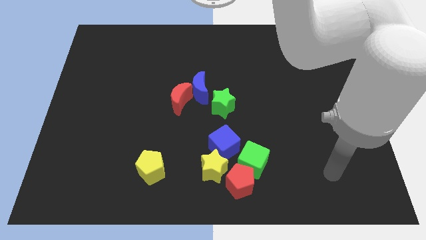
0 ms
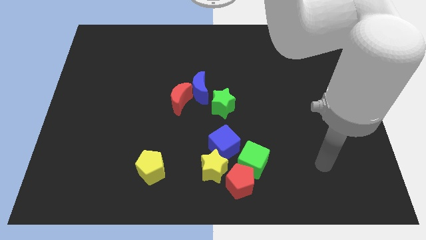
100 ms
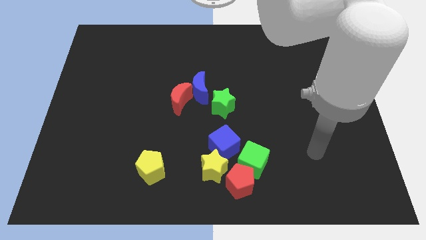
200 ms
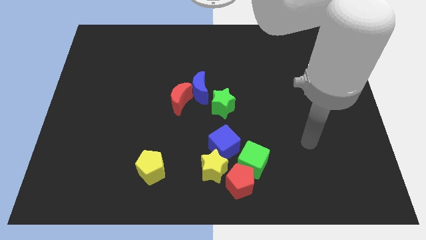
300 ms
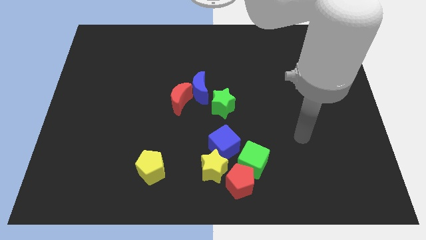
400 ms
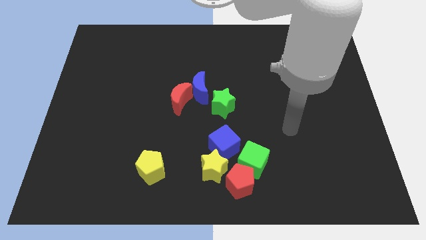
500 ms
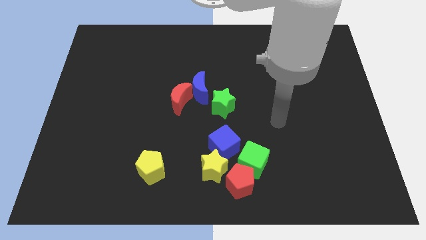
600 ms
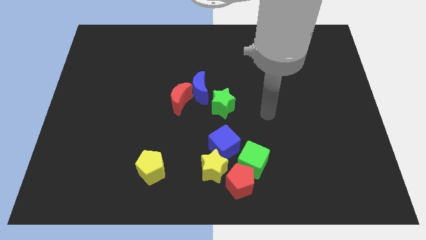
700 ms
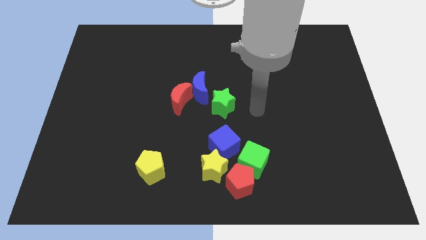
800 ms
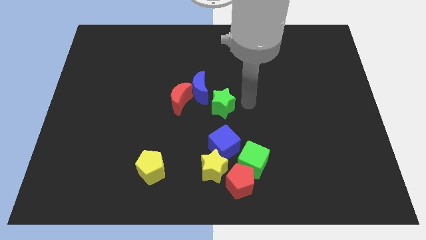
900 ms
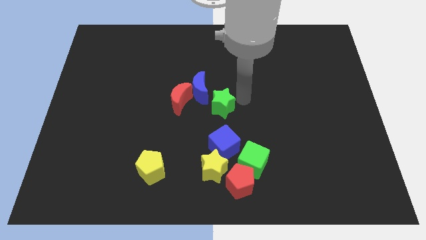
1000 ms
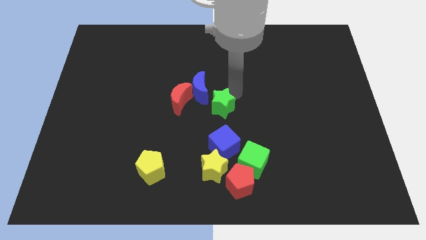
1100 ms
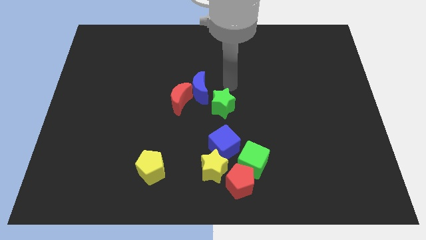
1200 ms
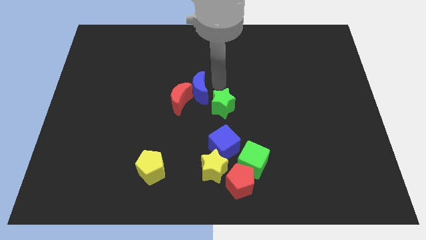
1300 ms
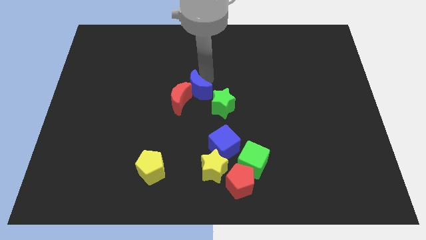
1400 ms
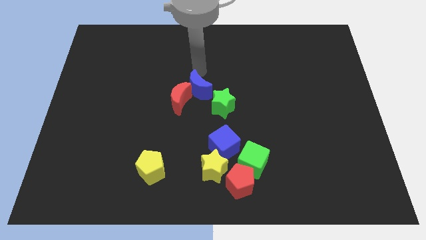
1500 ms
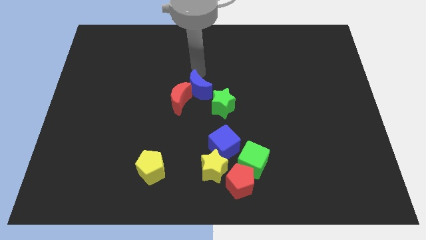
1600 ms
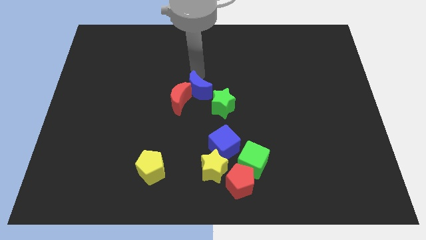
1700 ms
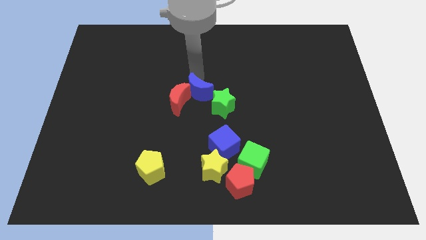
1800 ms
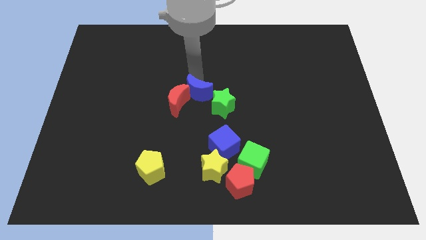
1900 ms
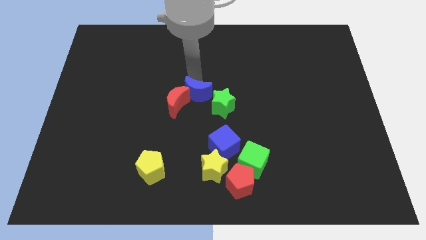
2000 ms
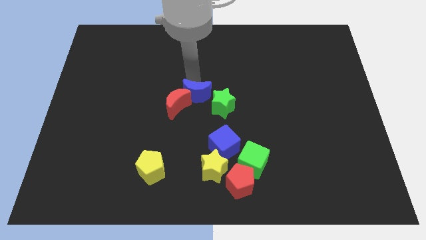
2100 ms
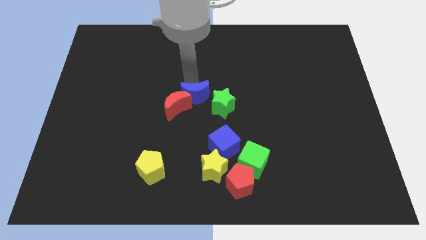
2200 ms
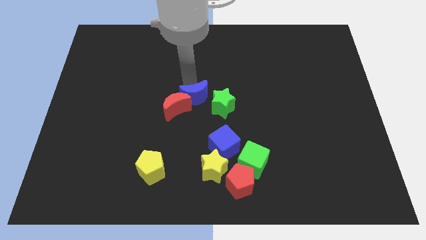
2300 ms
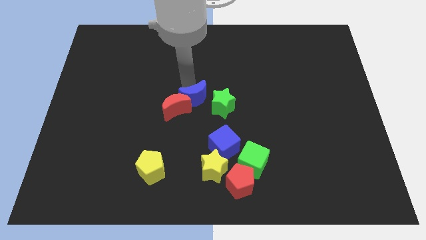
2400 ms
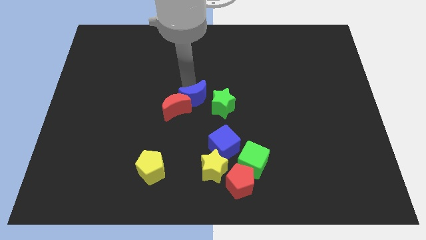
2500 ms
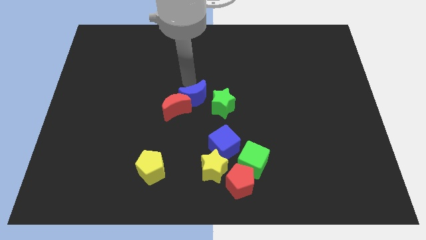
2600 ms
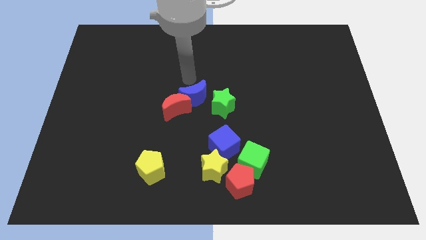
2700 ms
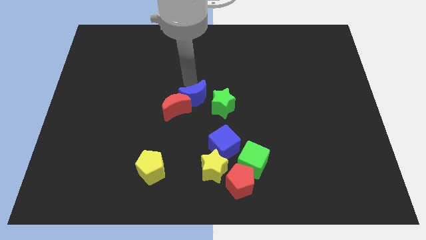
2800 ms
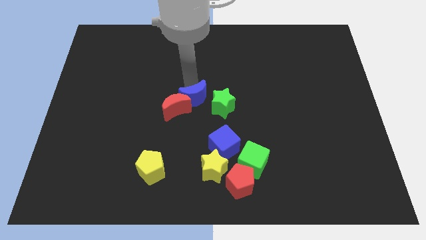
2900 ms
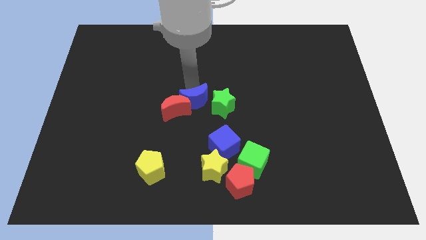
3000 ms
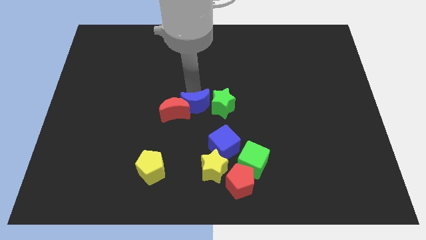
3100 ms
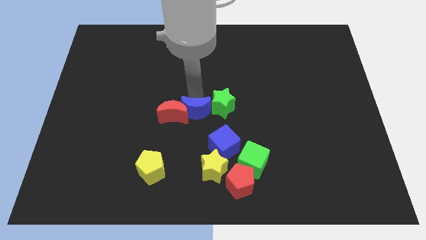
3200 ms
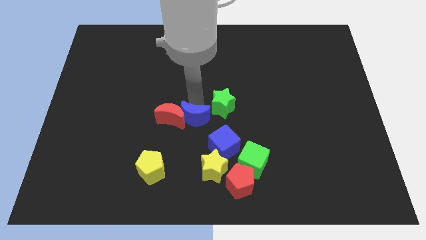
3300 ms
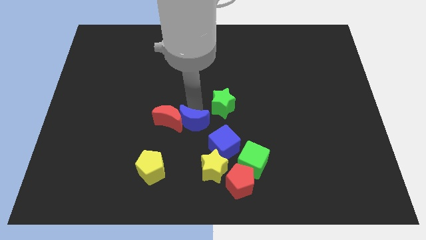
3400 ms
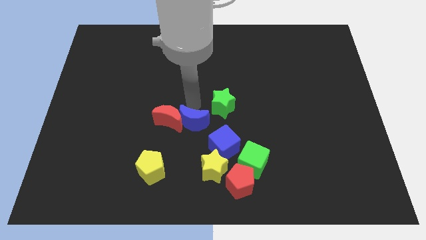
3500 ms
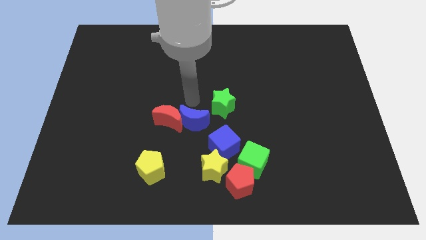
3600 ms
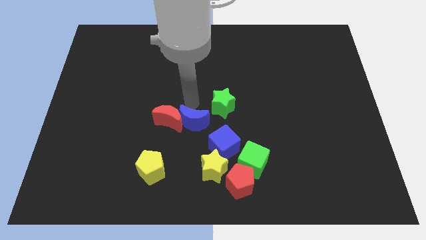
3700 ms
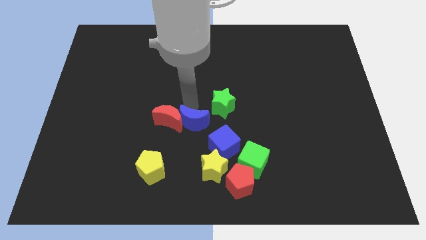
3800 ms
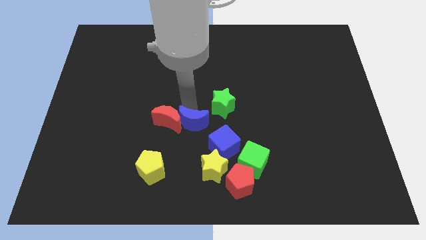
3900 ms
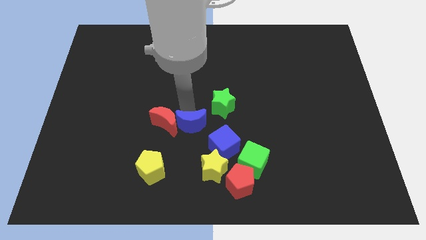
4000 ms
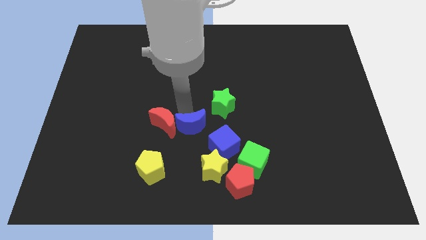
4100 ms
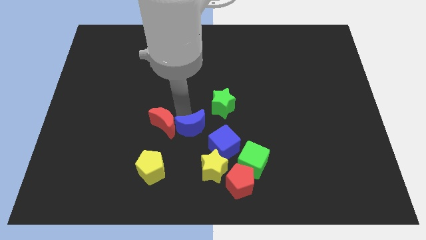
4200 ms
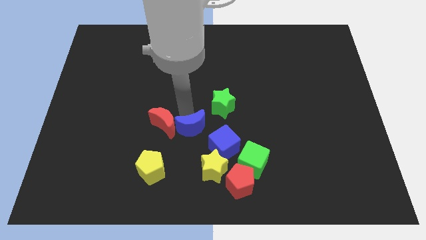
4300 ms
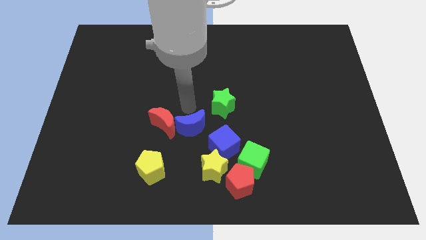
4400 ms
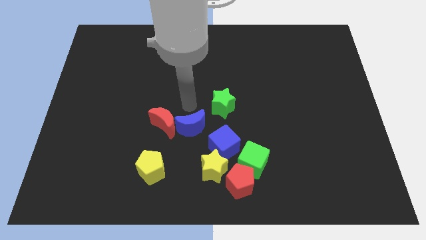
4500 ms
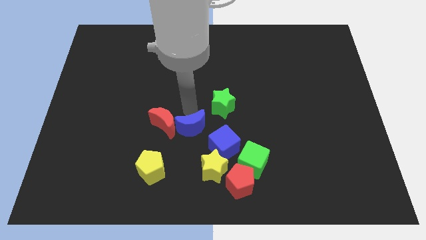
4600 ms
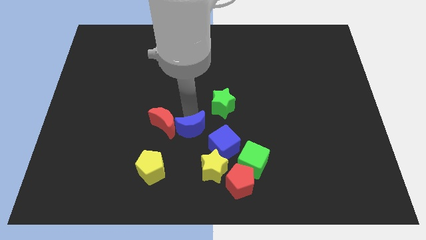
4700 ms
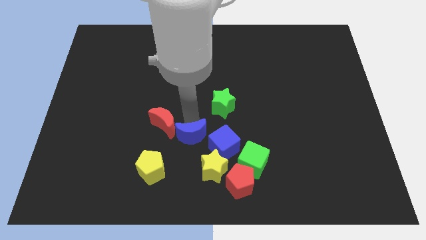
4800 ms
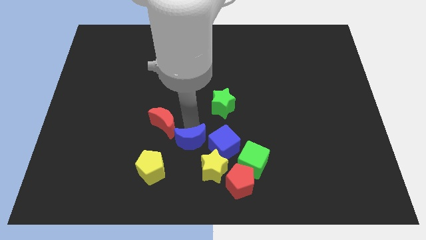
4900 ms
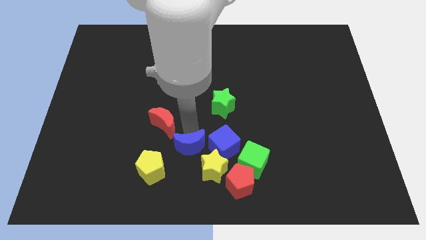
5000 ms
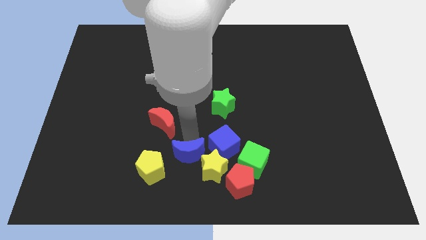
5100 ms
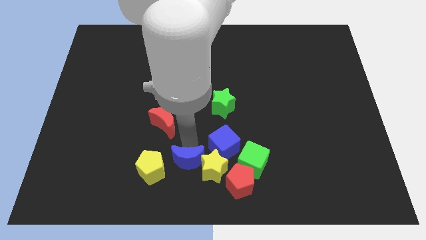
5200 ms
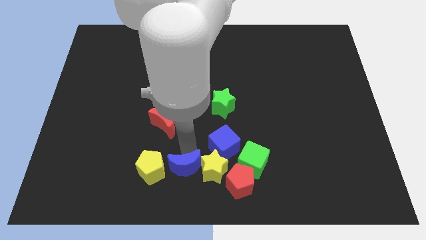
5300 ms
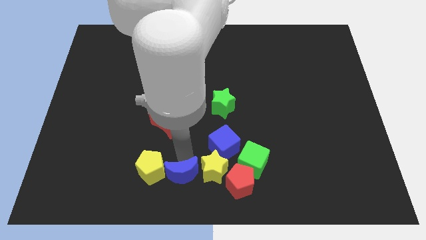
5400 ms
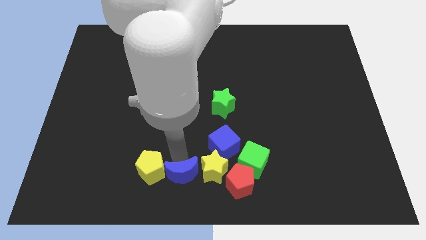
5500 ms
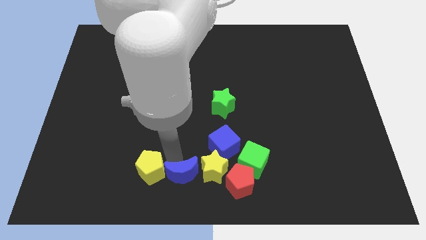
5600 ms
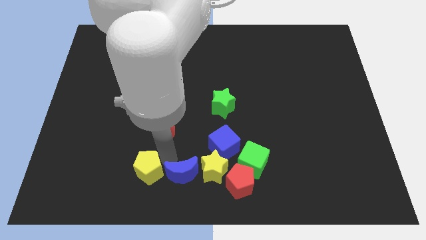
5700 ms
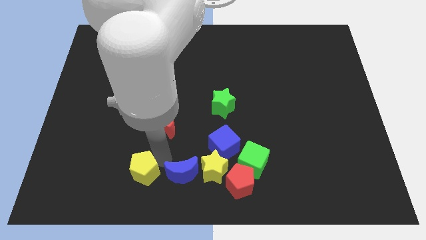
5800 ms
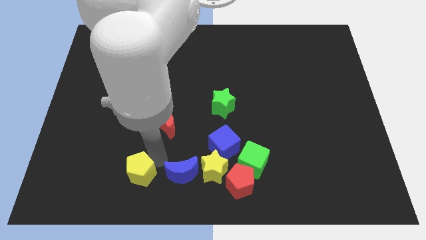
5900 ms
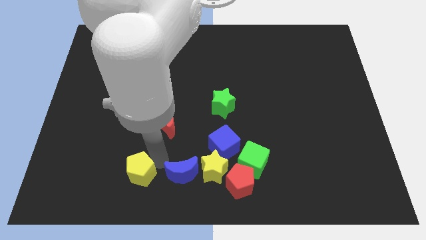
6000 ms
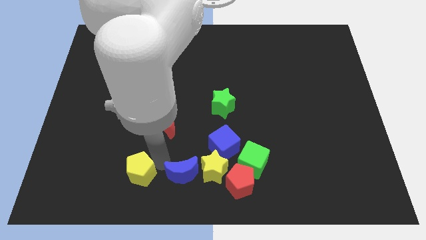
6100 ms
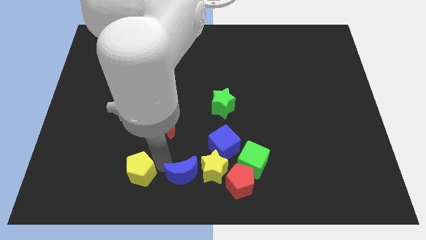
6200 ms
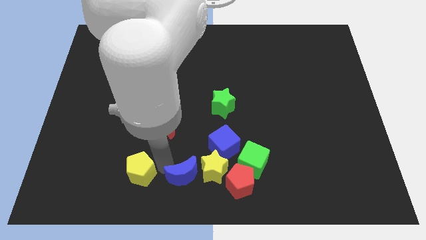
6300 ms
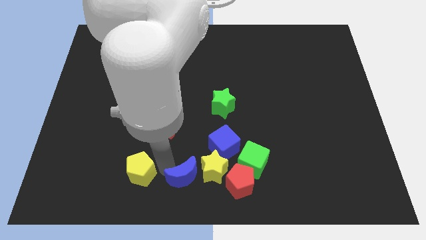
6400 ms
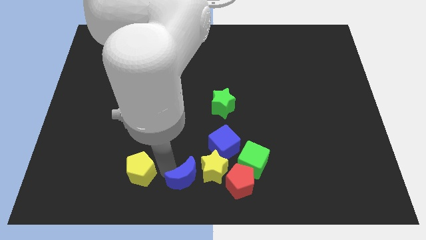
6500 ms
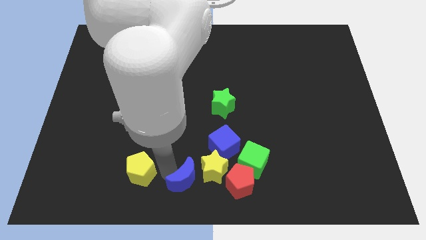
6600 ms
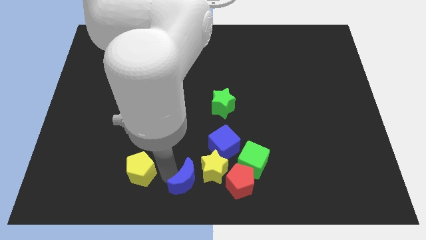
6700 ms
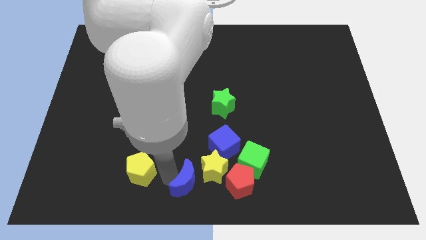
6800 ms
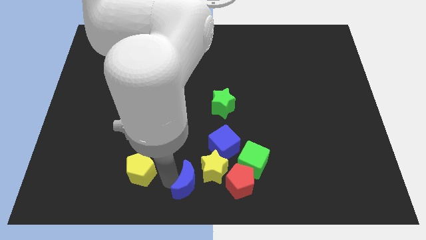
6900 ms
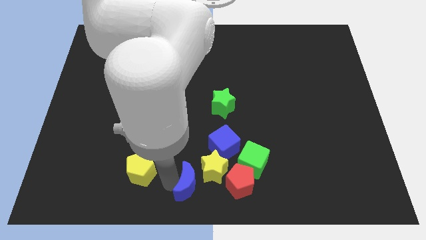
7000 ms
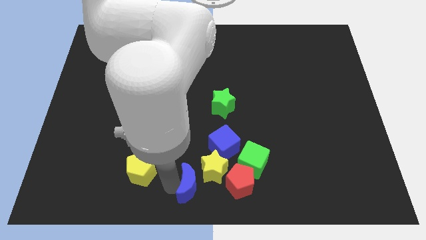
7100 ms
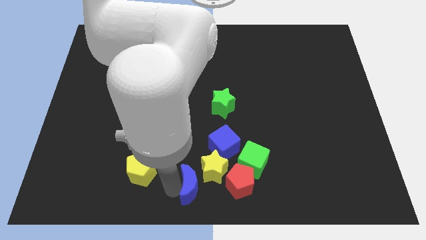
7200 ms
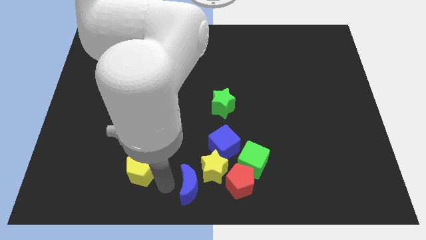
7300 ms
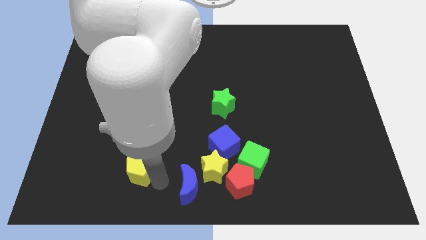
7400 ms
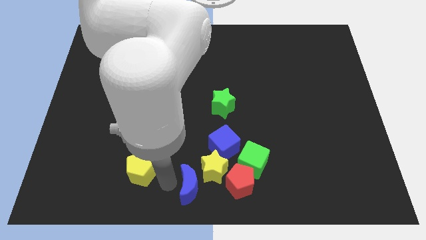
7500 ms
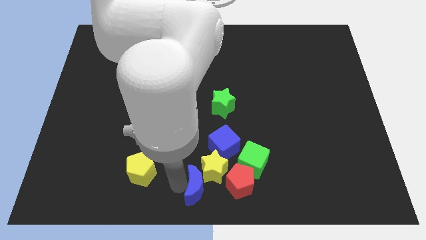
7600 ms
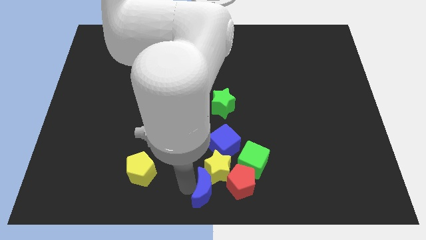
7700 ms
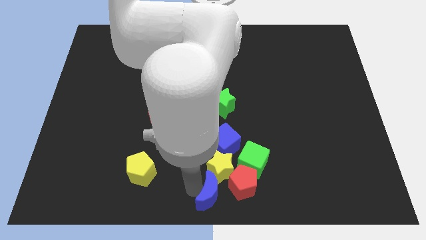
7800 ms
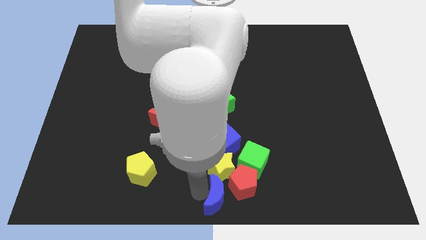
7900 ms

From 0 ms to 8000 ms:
push the blue moon to the red pentagon

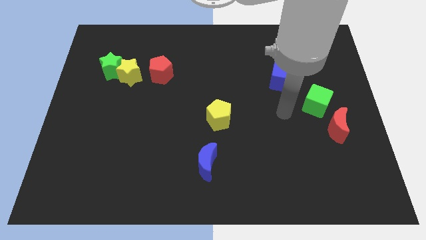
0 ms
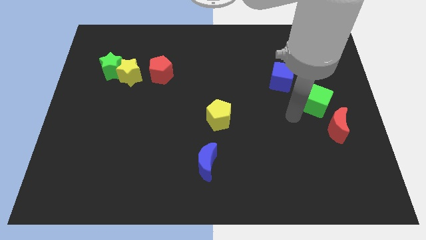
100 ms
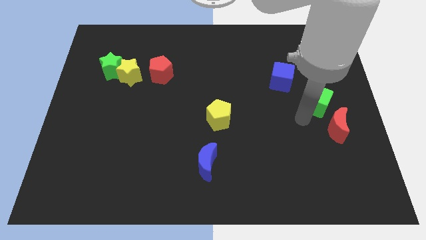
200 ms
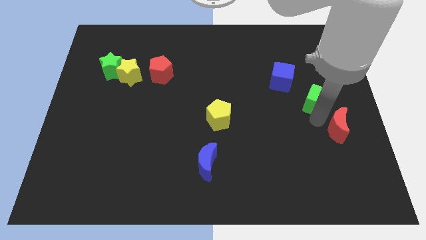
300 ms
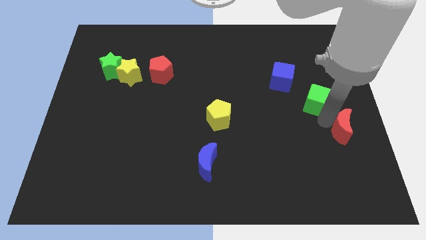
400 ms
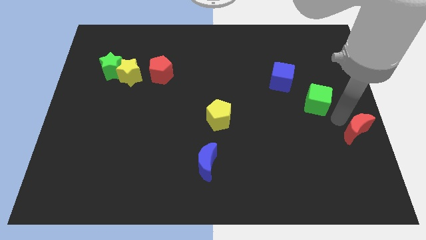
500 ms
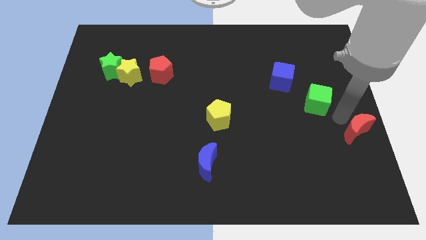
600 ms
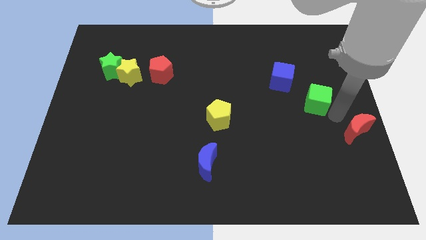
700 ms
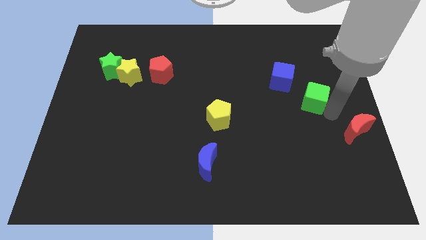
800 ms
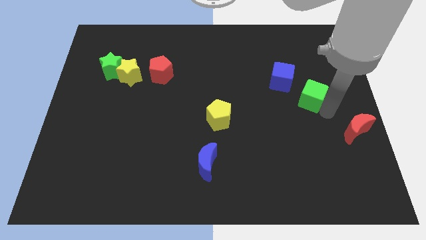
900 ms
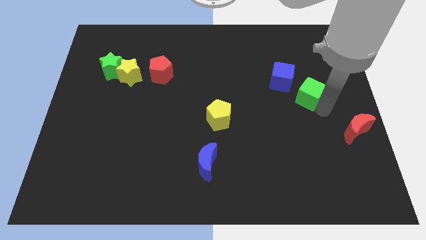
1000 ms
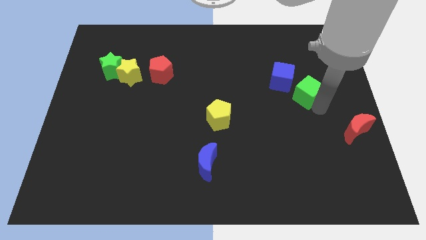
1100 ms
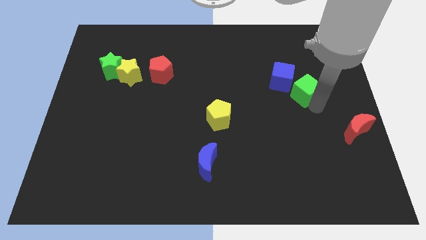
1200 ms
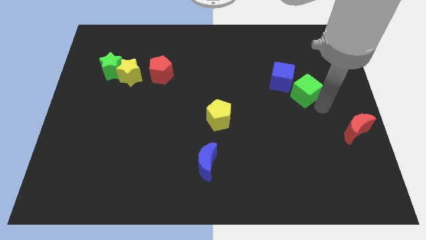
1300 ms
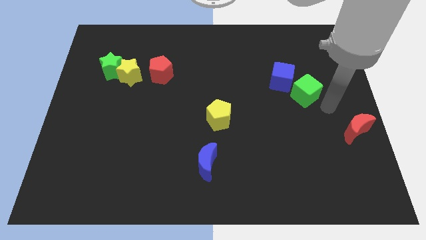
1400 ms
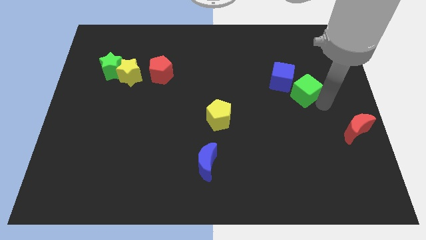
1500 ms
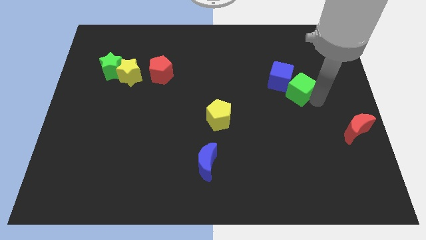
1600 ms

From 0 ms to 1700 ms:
put the green cube to the blue cube
